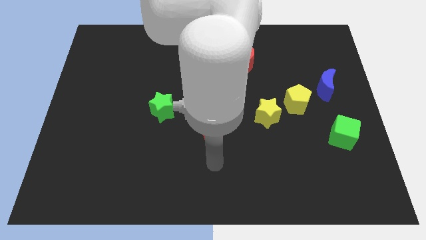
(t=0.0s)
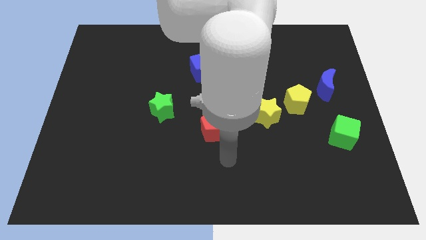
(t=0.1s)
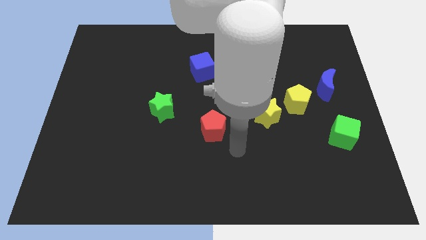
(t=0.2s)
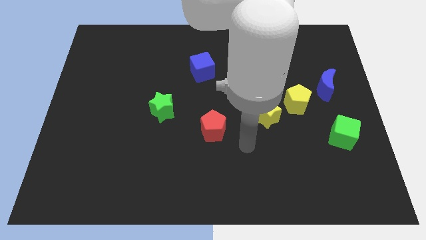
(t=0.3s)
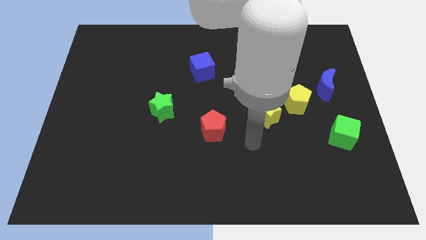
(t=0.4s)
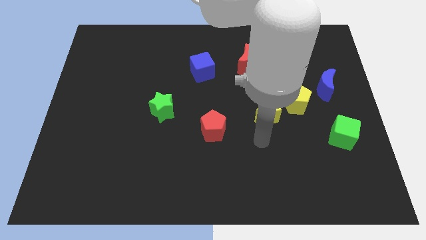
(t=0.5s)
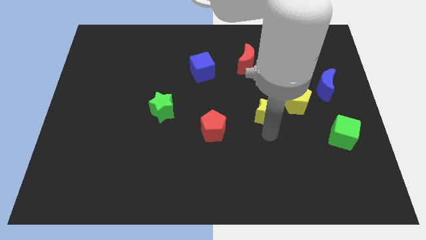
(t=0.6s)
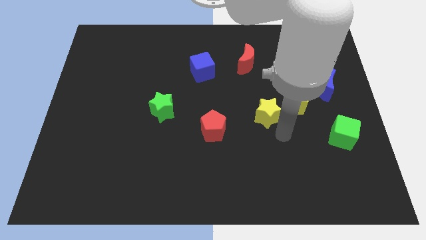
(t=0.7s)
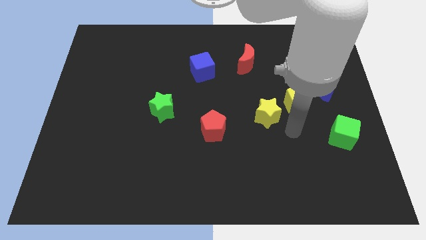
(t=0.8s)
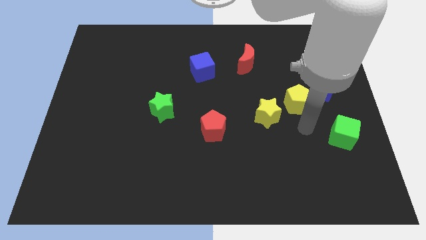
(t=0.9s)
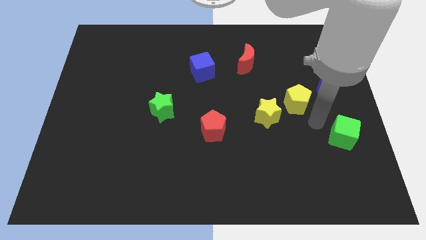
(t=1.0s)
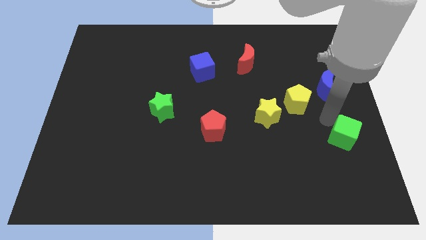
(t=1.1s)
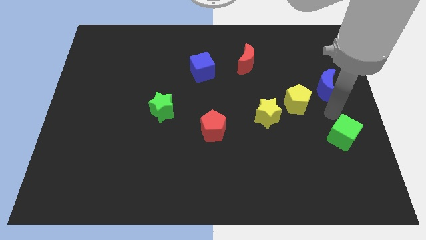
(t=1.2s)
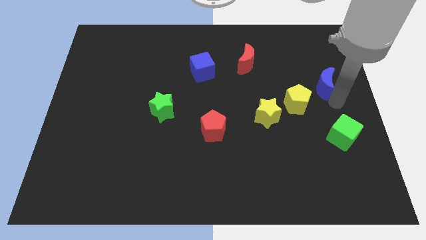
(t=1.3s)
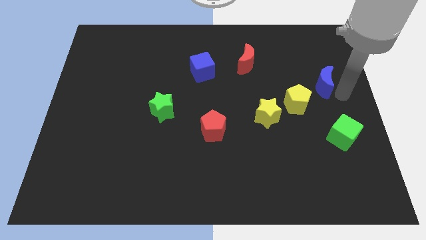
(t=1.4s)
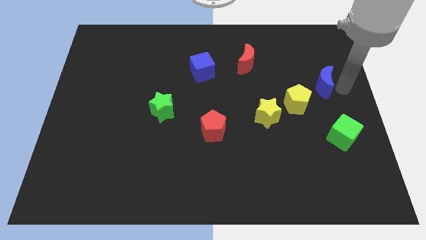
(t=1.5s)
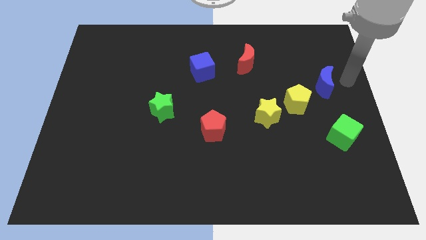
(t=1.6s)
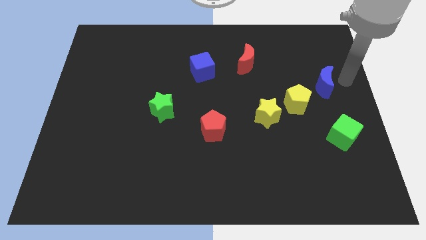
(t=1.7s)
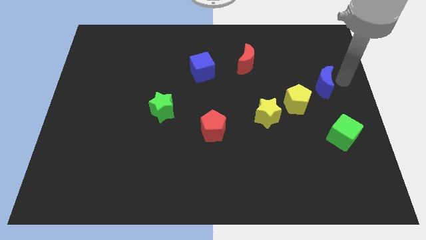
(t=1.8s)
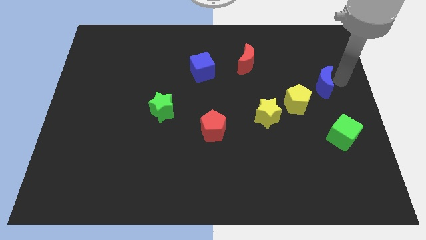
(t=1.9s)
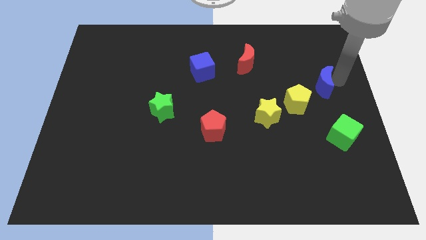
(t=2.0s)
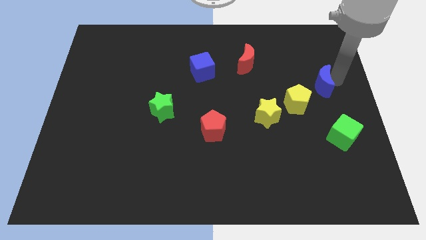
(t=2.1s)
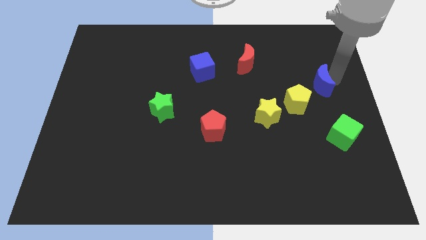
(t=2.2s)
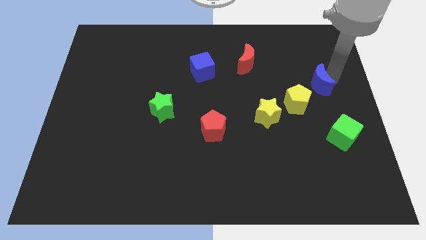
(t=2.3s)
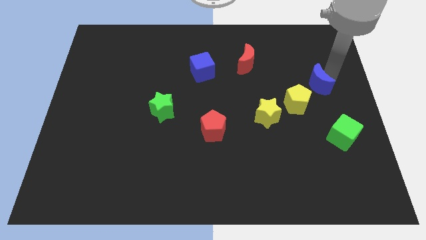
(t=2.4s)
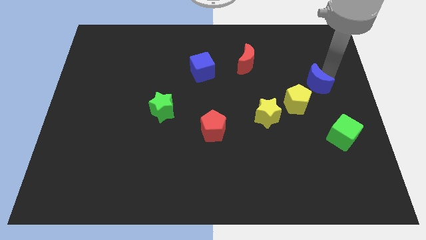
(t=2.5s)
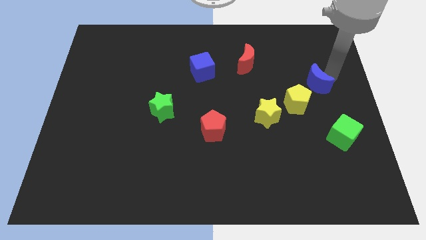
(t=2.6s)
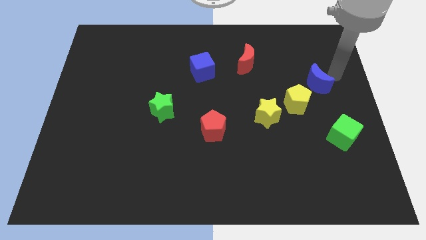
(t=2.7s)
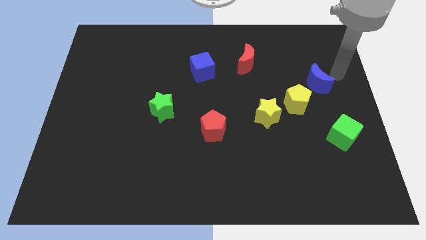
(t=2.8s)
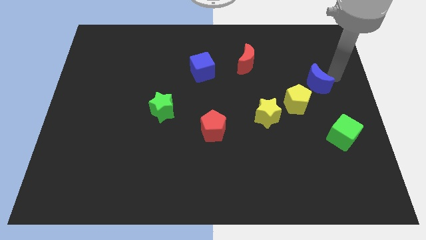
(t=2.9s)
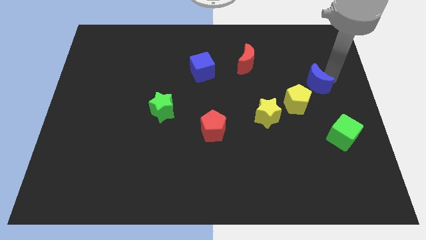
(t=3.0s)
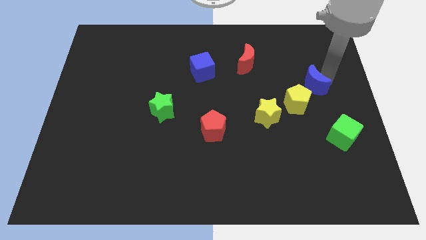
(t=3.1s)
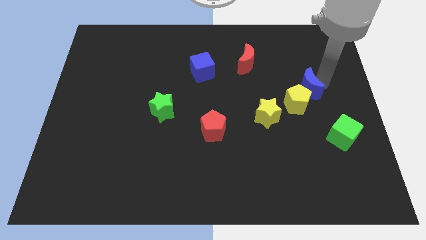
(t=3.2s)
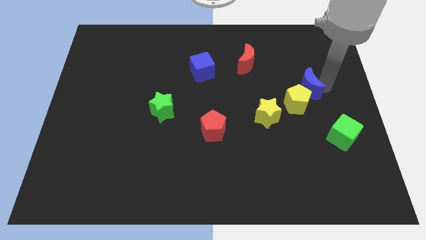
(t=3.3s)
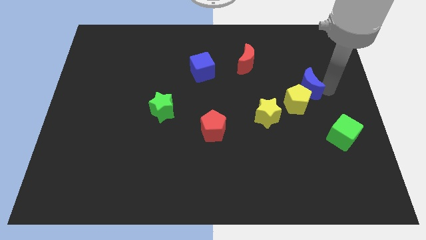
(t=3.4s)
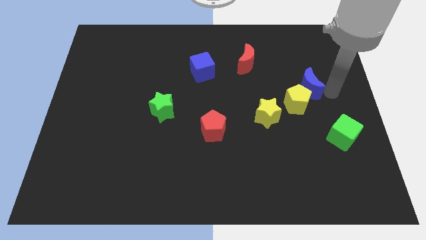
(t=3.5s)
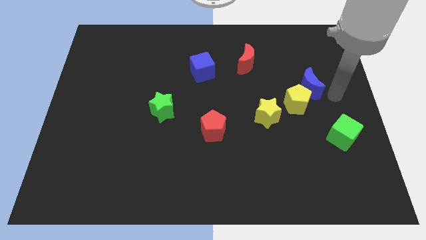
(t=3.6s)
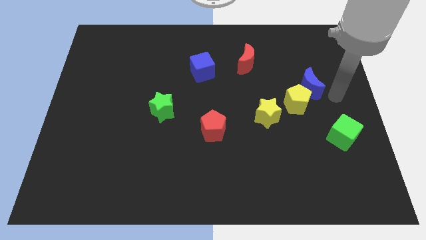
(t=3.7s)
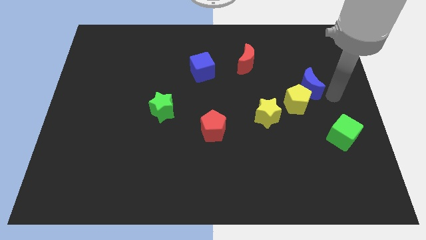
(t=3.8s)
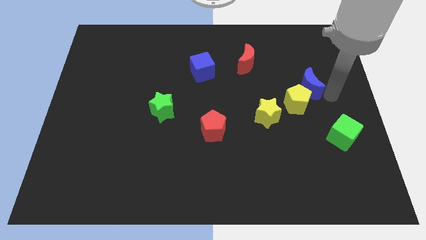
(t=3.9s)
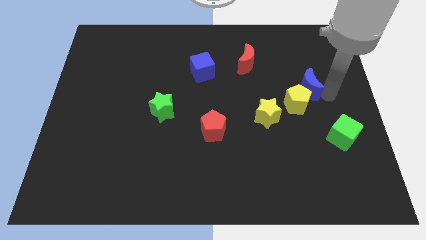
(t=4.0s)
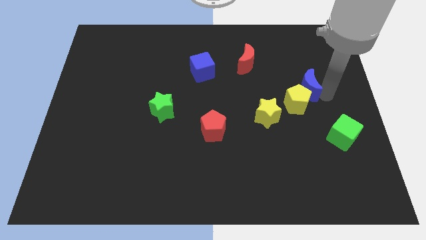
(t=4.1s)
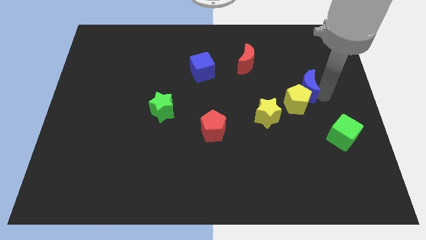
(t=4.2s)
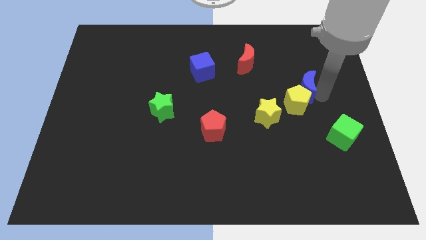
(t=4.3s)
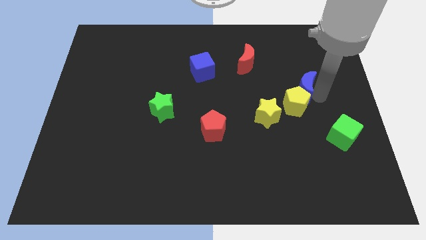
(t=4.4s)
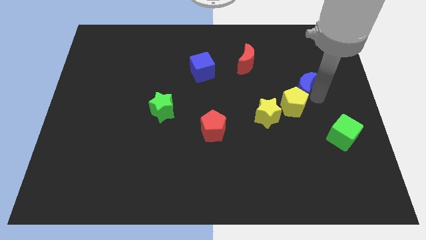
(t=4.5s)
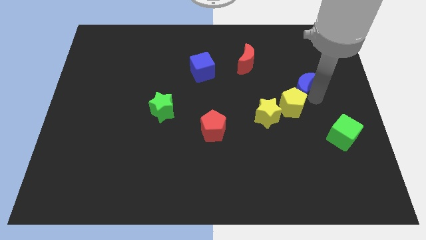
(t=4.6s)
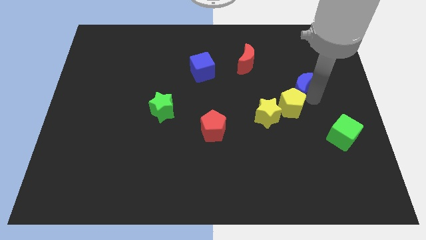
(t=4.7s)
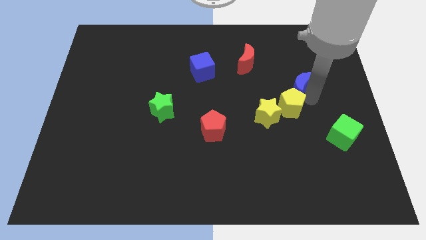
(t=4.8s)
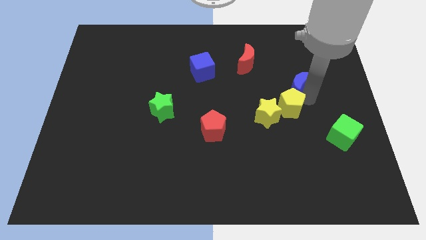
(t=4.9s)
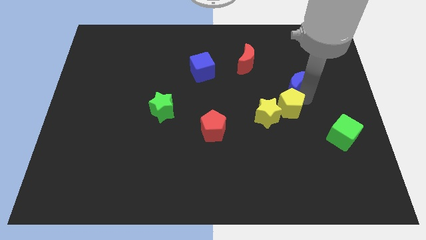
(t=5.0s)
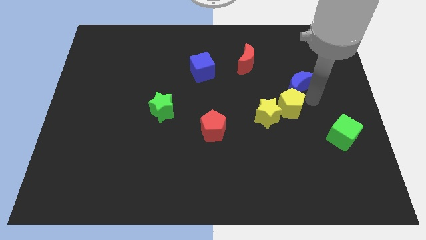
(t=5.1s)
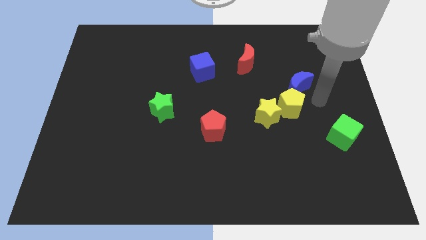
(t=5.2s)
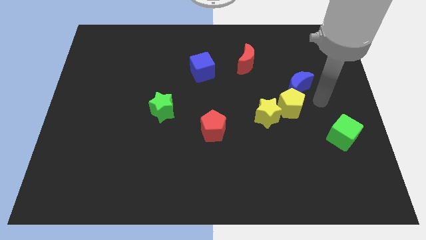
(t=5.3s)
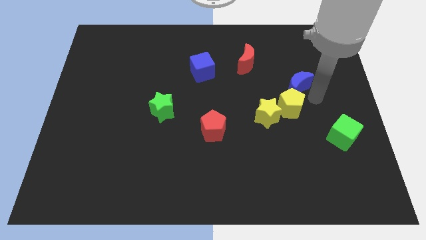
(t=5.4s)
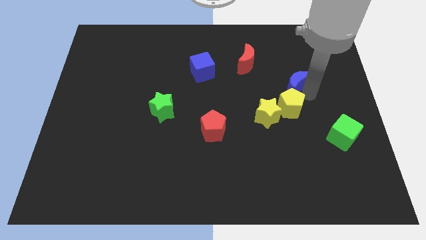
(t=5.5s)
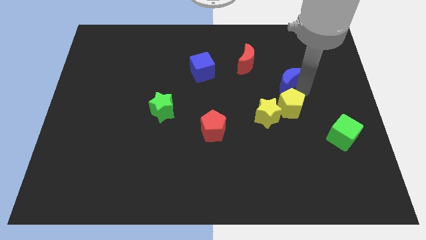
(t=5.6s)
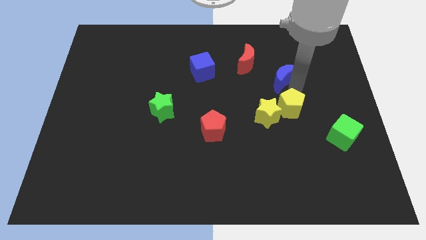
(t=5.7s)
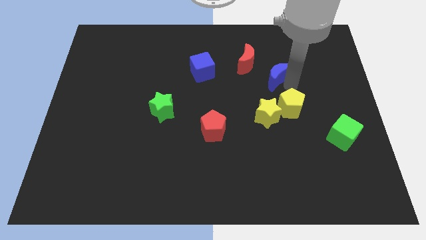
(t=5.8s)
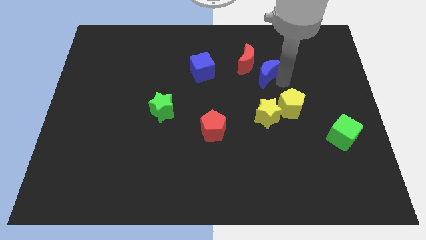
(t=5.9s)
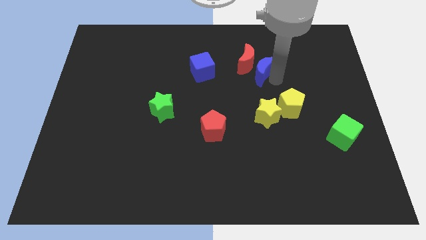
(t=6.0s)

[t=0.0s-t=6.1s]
put the blue moon close to the red moon

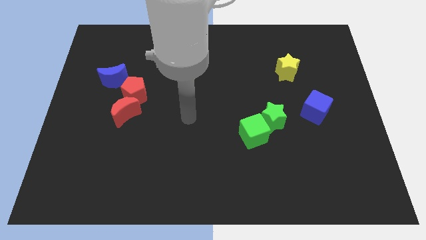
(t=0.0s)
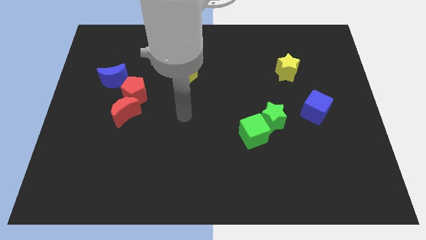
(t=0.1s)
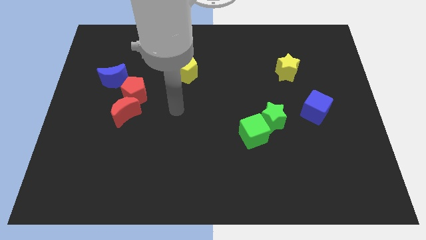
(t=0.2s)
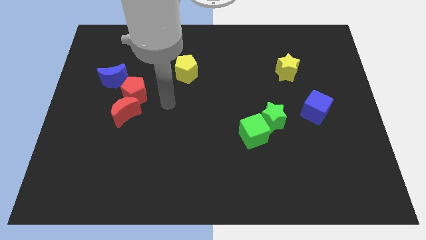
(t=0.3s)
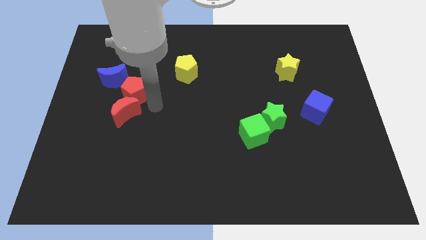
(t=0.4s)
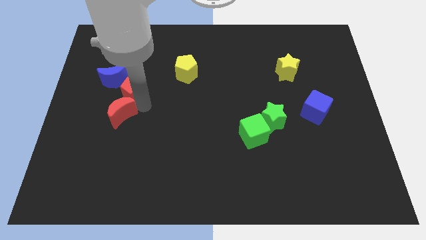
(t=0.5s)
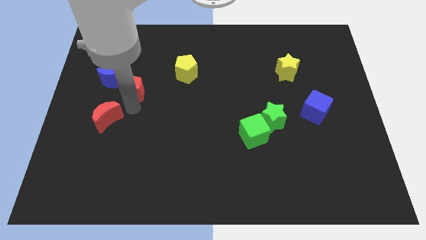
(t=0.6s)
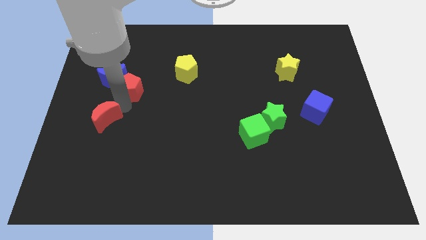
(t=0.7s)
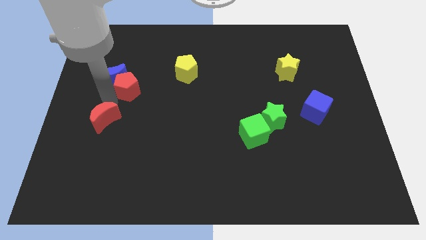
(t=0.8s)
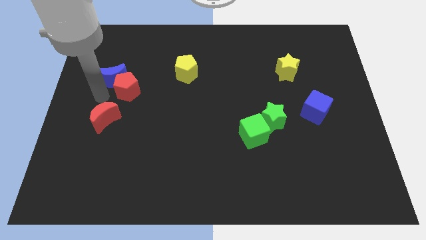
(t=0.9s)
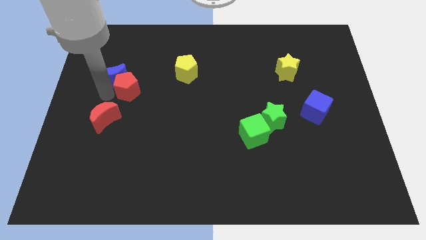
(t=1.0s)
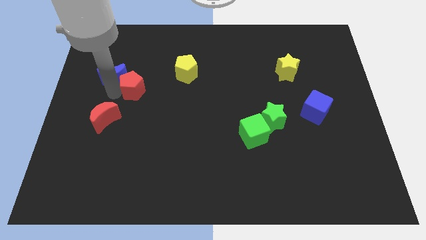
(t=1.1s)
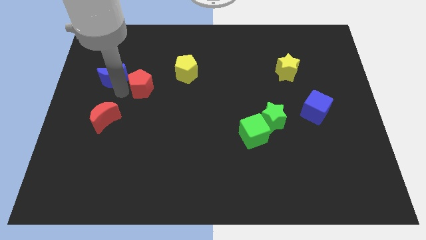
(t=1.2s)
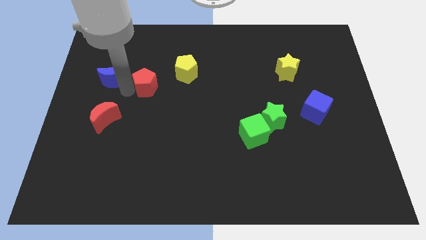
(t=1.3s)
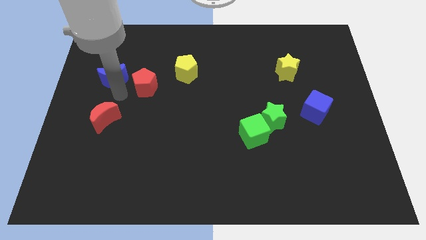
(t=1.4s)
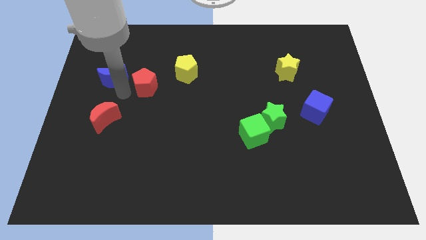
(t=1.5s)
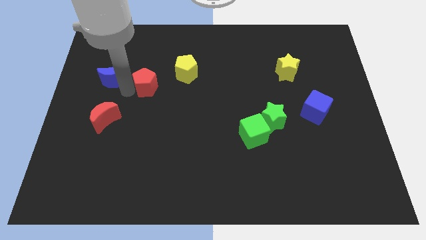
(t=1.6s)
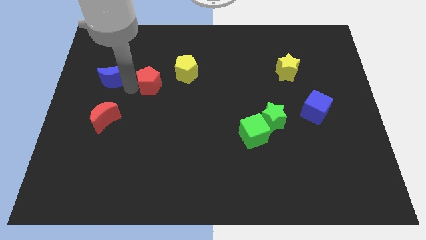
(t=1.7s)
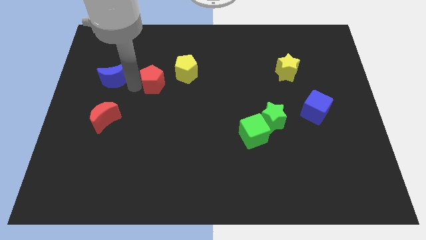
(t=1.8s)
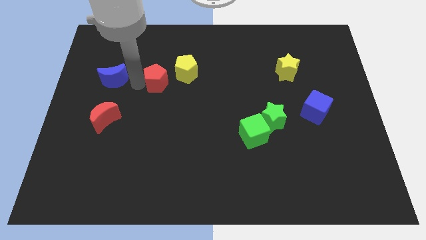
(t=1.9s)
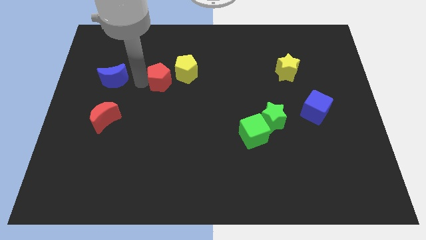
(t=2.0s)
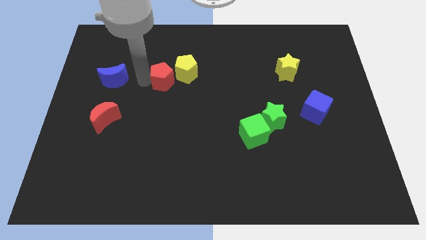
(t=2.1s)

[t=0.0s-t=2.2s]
move the red pentagon next to the yellow pentagon
